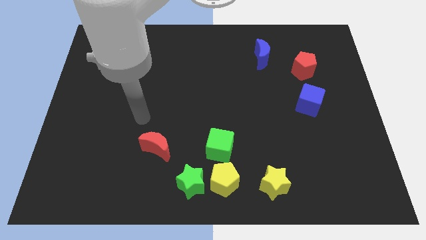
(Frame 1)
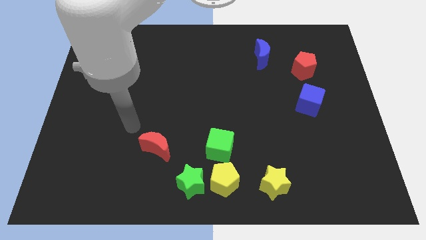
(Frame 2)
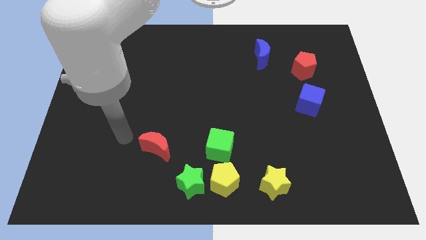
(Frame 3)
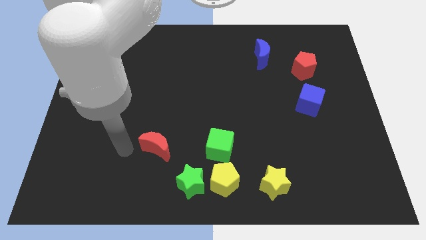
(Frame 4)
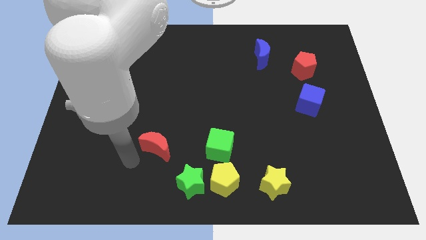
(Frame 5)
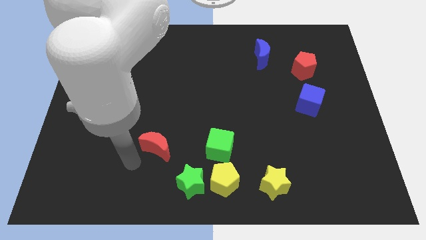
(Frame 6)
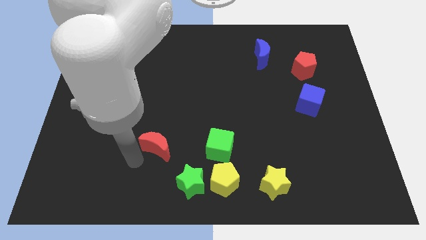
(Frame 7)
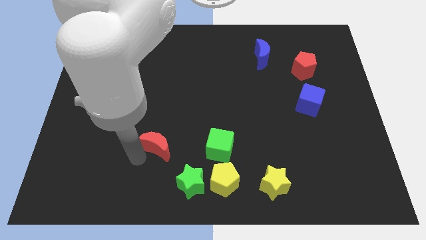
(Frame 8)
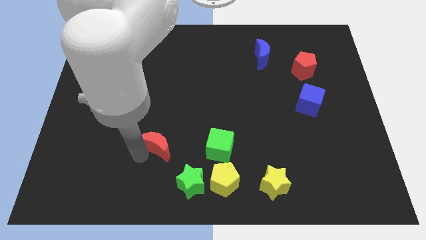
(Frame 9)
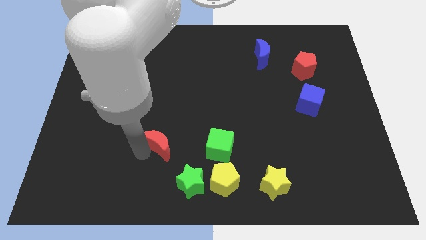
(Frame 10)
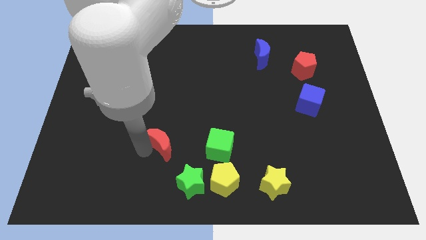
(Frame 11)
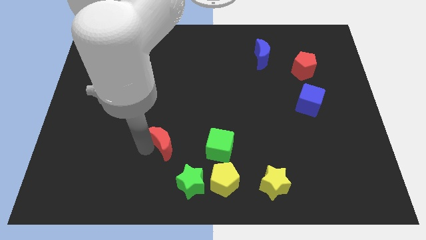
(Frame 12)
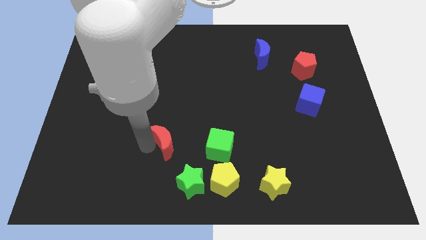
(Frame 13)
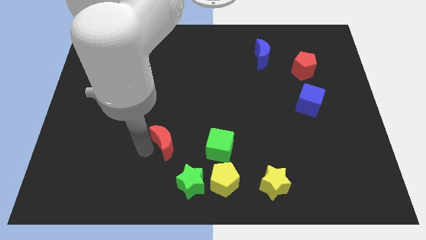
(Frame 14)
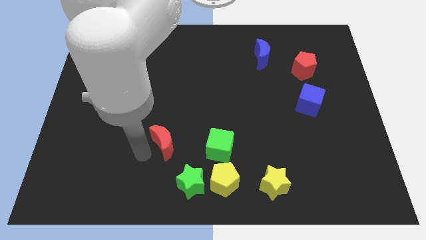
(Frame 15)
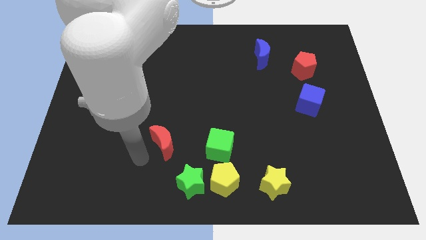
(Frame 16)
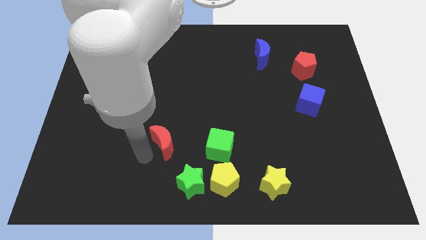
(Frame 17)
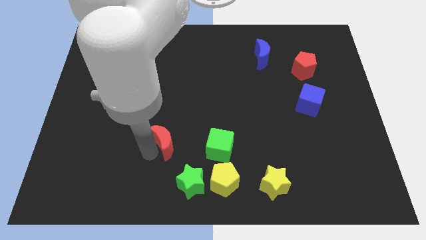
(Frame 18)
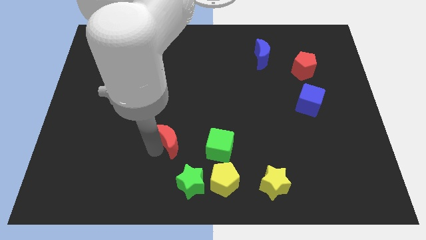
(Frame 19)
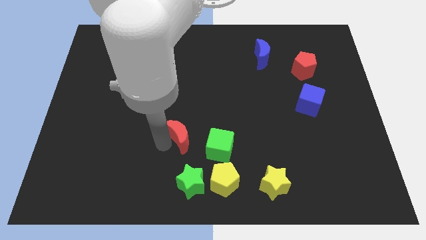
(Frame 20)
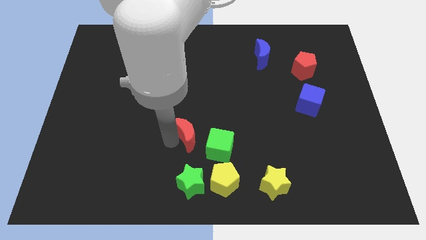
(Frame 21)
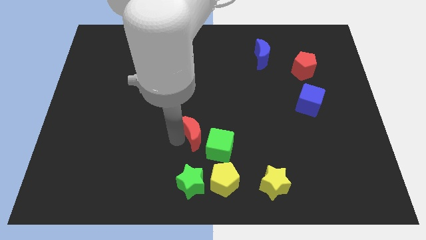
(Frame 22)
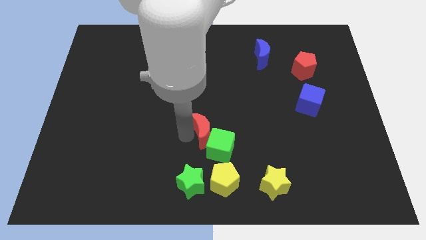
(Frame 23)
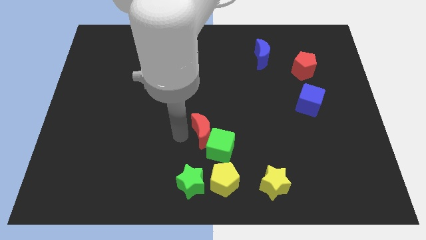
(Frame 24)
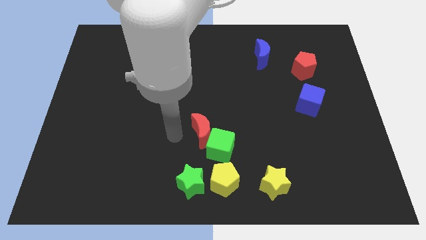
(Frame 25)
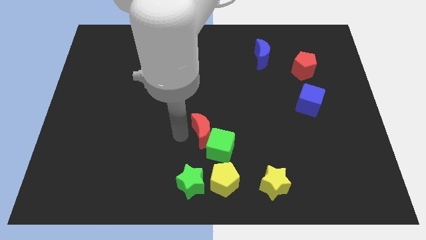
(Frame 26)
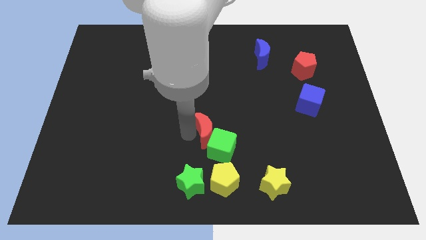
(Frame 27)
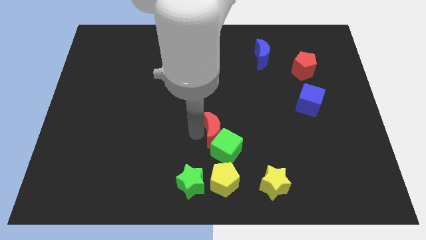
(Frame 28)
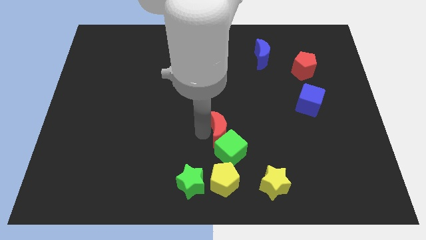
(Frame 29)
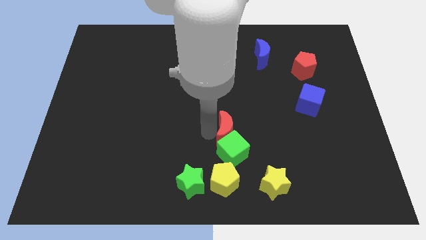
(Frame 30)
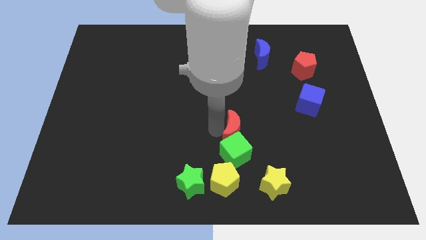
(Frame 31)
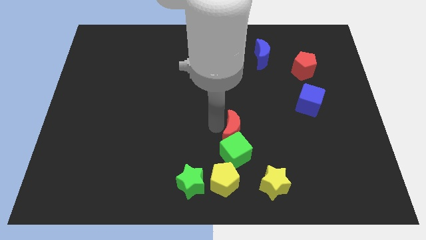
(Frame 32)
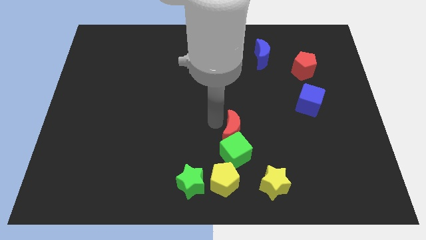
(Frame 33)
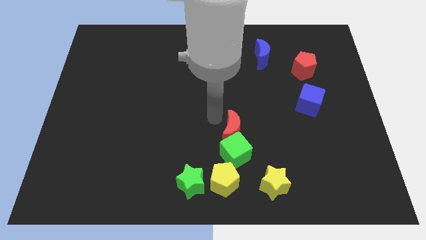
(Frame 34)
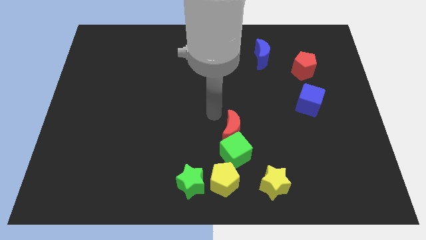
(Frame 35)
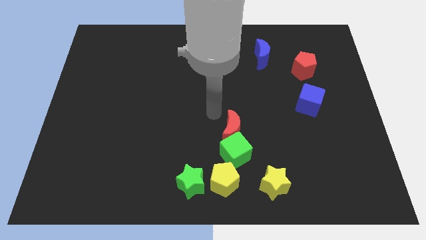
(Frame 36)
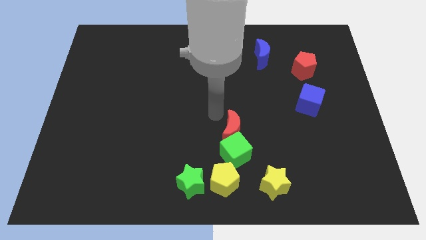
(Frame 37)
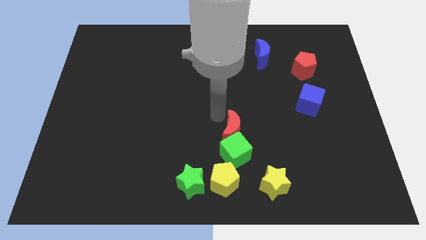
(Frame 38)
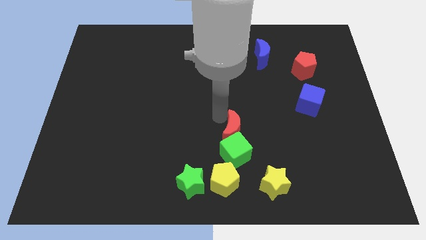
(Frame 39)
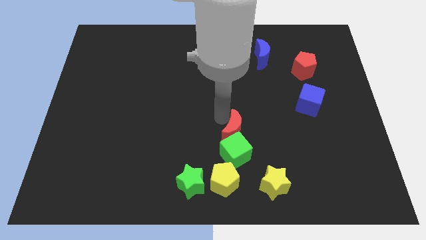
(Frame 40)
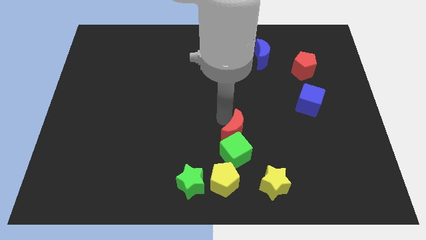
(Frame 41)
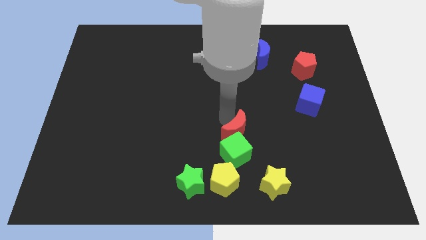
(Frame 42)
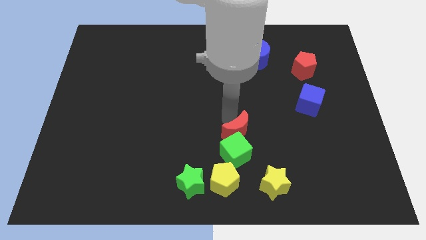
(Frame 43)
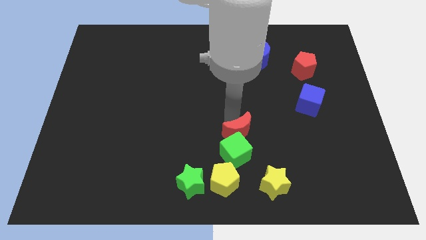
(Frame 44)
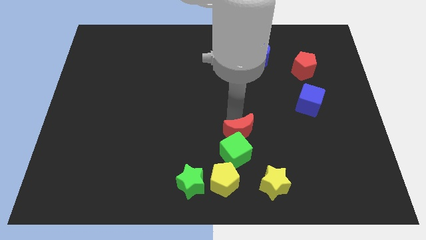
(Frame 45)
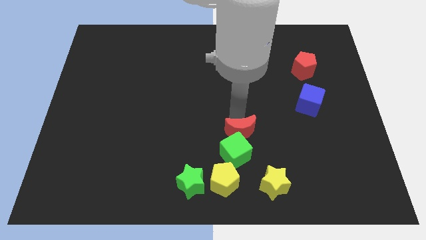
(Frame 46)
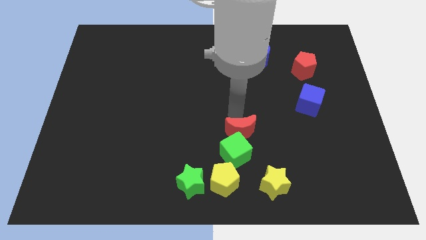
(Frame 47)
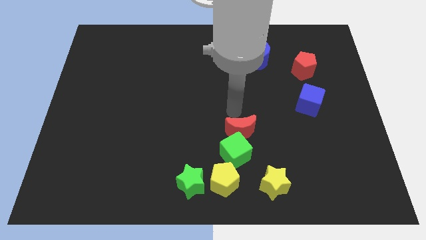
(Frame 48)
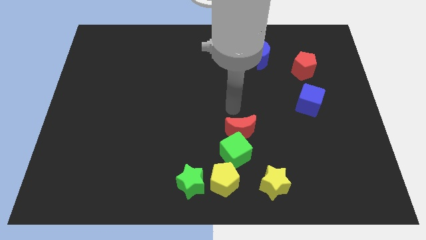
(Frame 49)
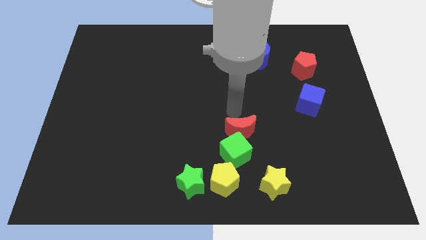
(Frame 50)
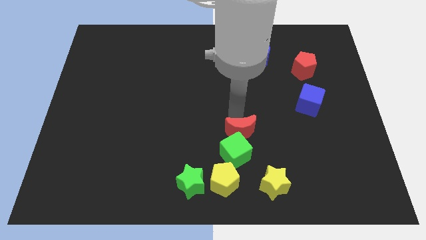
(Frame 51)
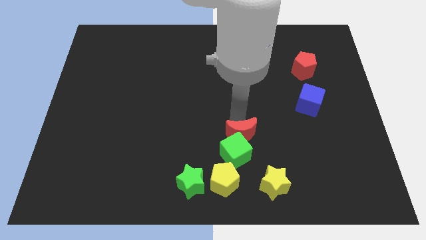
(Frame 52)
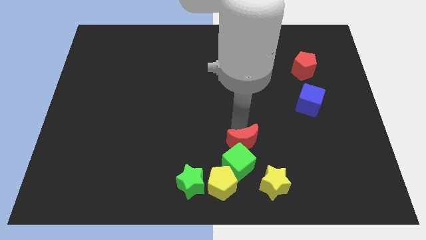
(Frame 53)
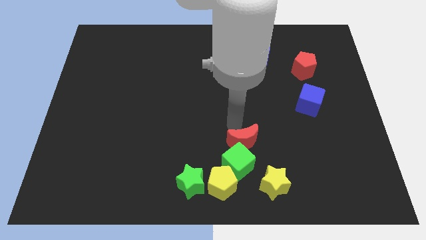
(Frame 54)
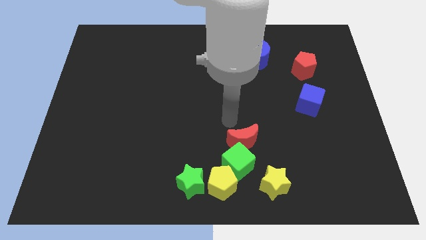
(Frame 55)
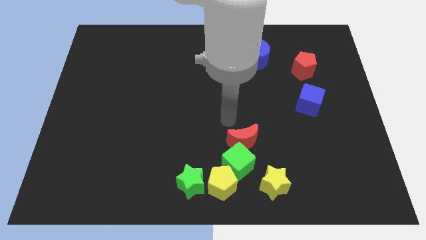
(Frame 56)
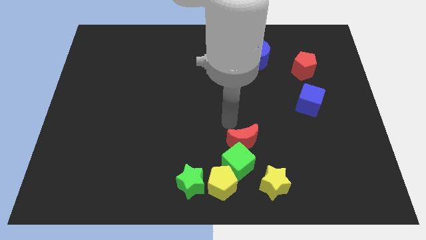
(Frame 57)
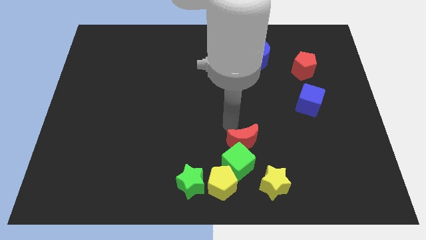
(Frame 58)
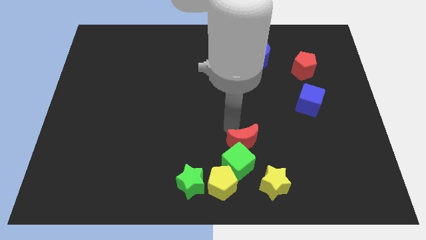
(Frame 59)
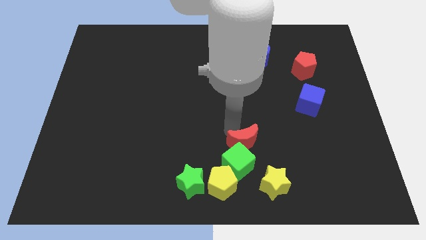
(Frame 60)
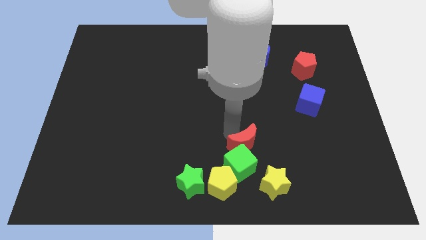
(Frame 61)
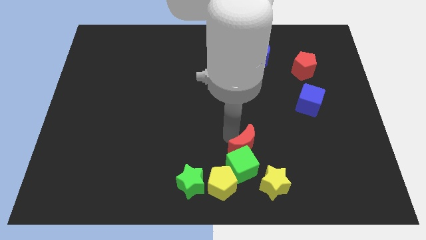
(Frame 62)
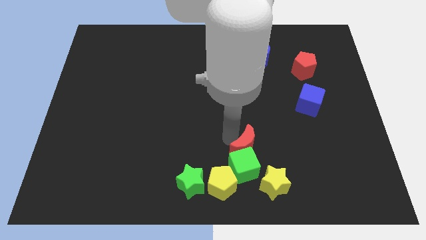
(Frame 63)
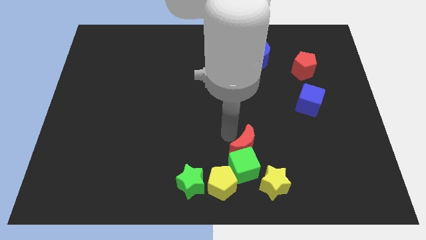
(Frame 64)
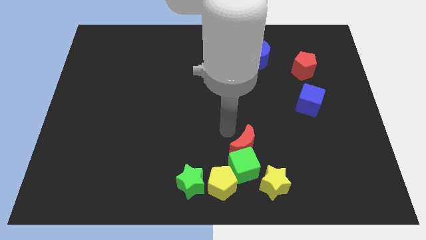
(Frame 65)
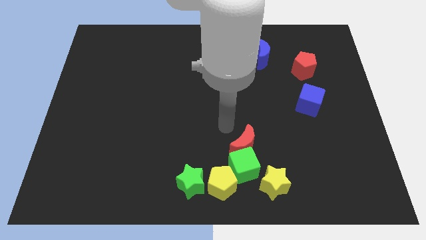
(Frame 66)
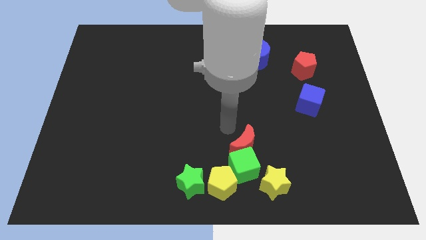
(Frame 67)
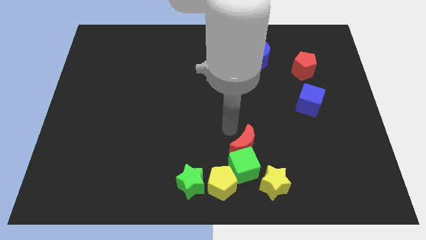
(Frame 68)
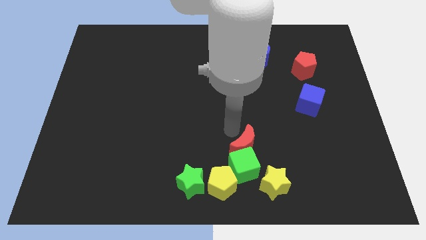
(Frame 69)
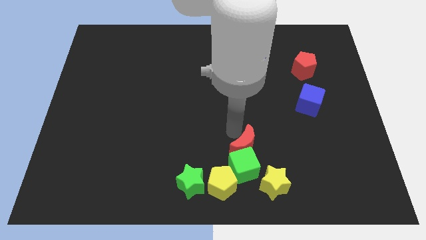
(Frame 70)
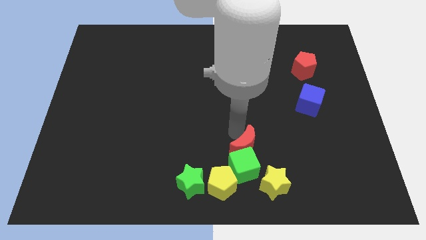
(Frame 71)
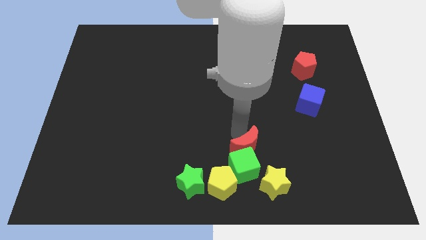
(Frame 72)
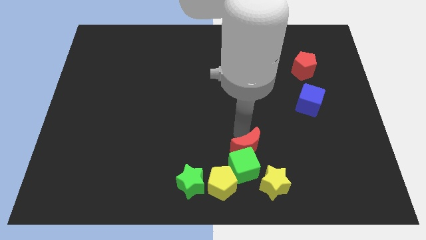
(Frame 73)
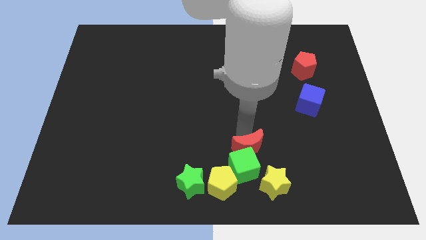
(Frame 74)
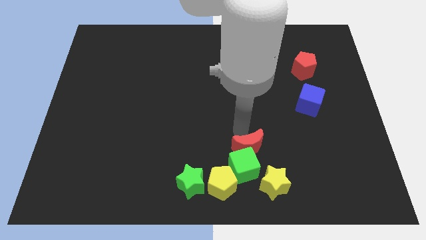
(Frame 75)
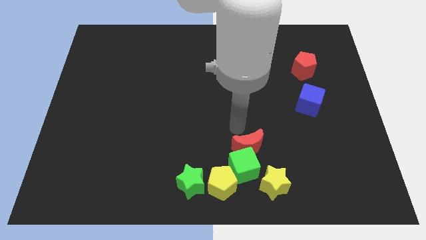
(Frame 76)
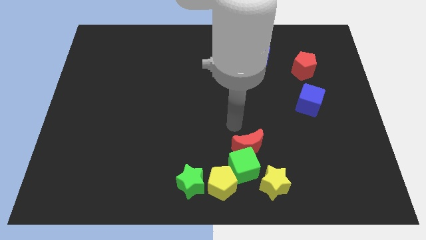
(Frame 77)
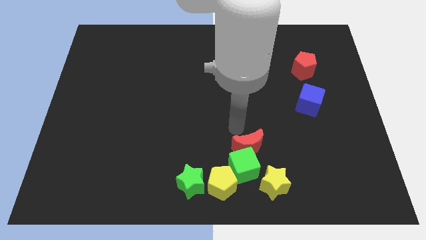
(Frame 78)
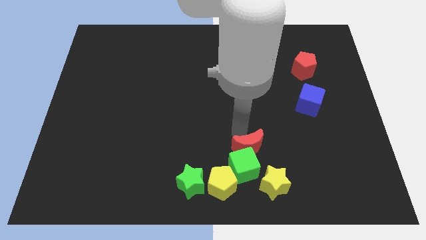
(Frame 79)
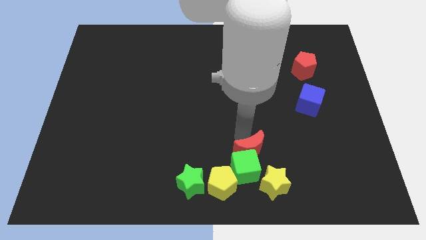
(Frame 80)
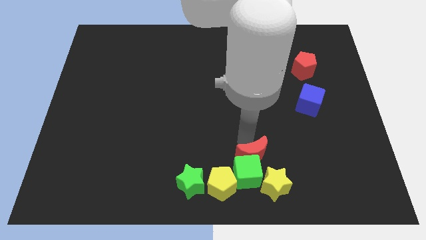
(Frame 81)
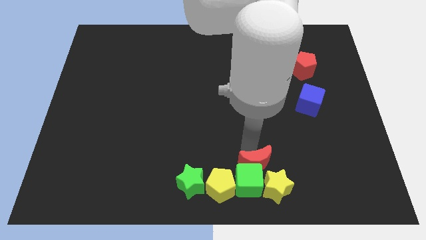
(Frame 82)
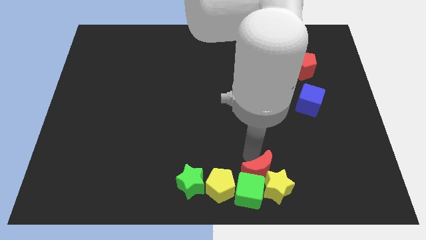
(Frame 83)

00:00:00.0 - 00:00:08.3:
move the red moon next to the yellow star
